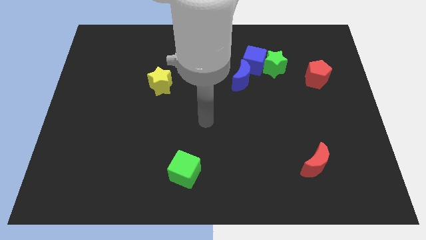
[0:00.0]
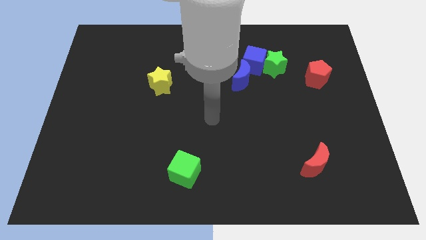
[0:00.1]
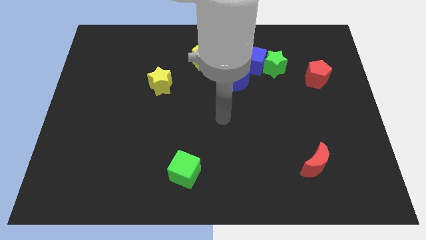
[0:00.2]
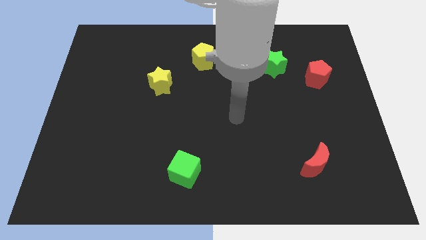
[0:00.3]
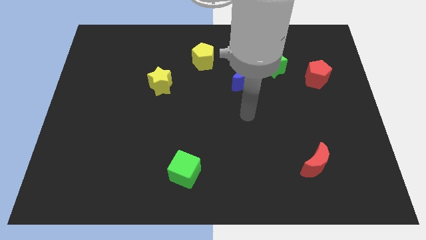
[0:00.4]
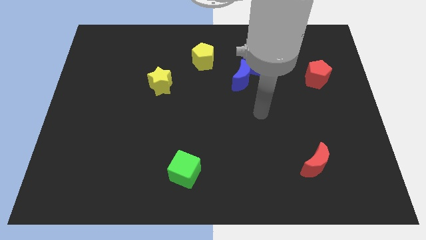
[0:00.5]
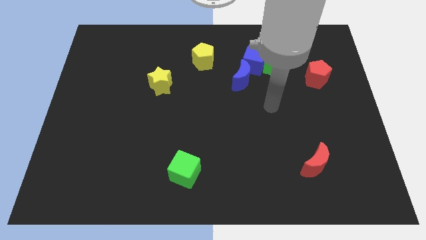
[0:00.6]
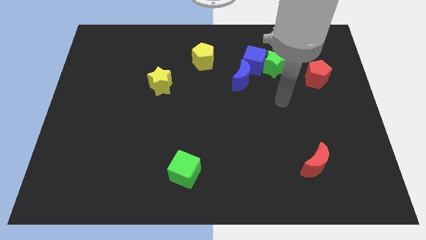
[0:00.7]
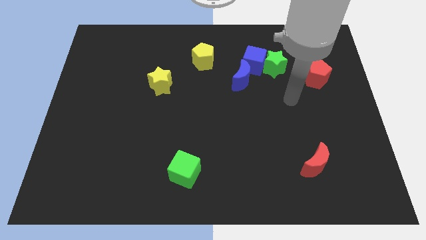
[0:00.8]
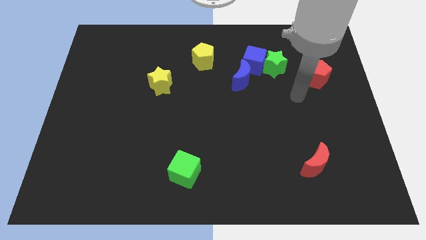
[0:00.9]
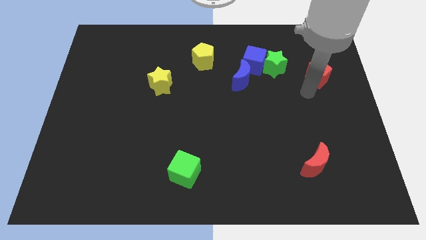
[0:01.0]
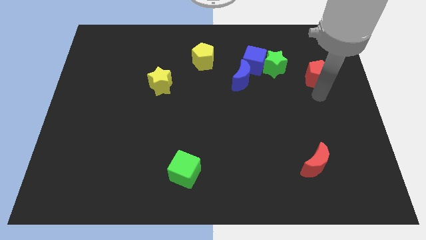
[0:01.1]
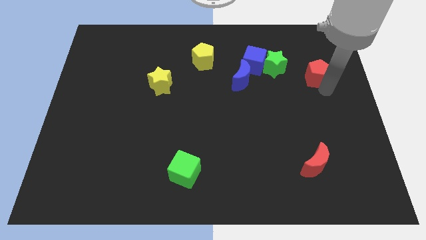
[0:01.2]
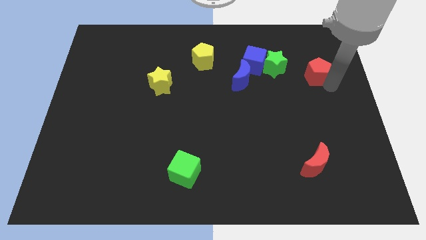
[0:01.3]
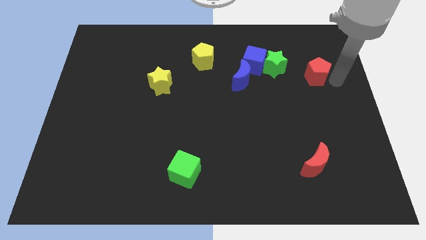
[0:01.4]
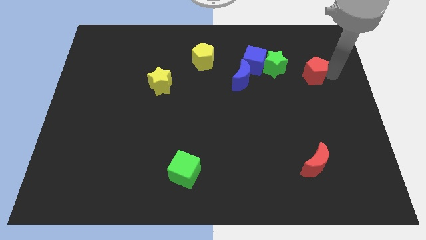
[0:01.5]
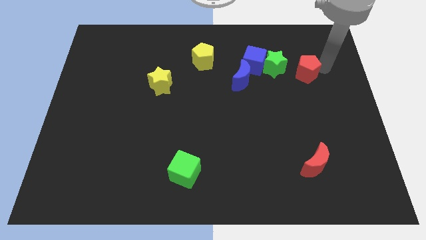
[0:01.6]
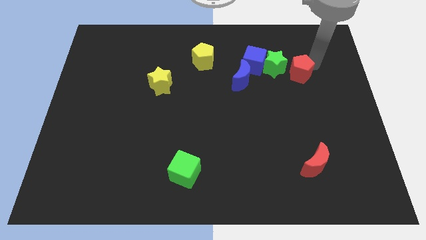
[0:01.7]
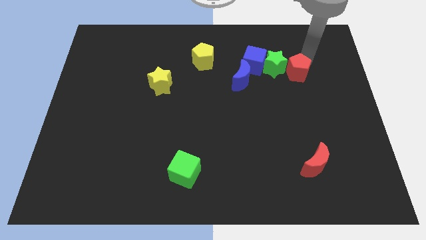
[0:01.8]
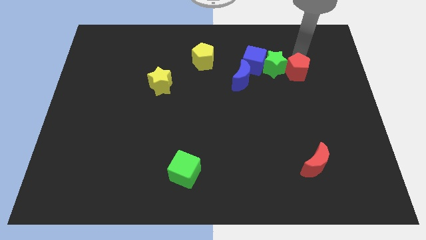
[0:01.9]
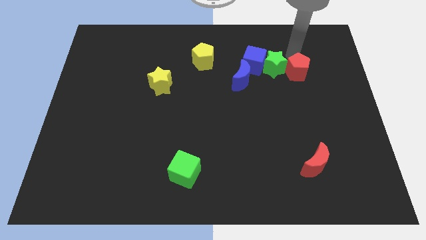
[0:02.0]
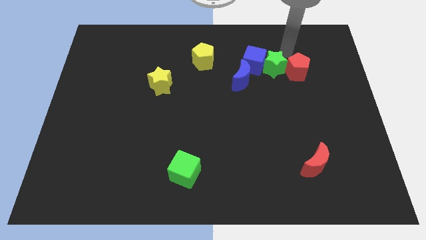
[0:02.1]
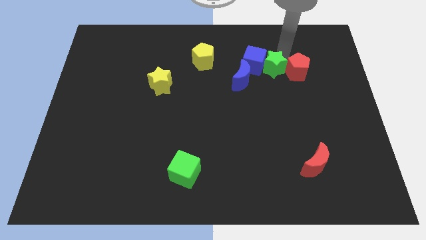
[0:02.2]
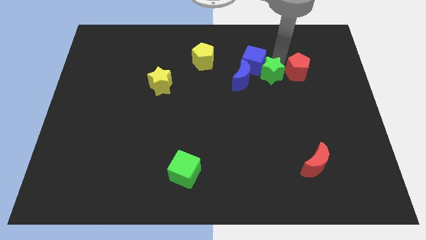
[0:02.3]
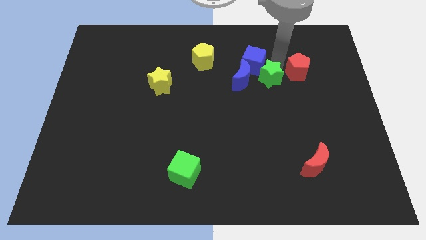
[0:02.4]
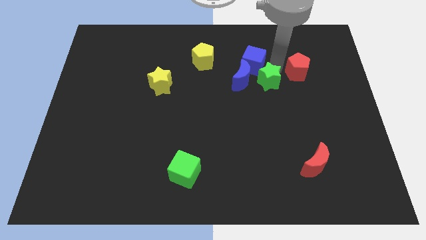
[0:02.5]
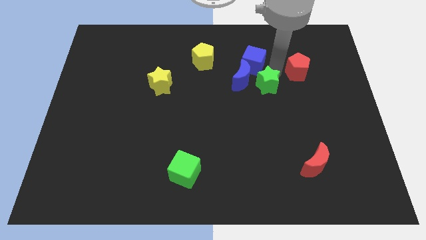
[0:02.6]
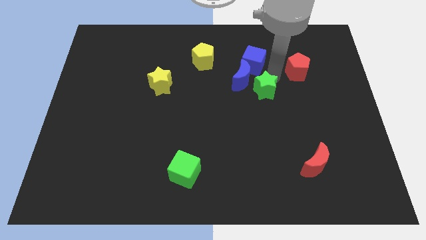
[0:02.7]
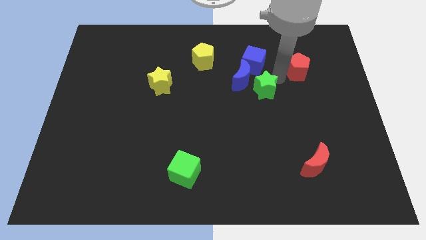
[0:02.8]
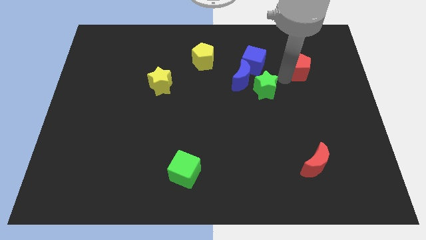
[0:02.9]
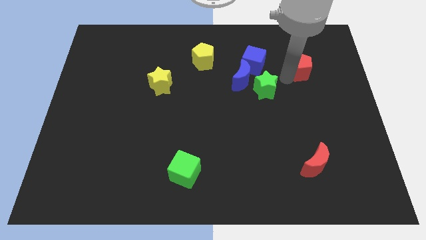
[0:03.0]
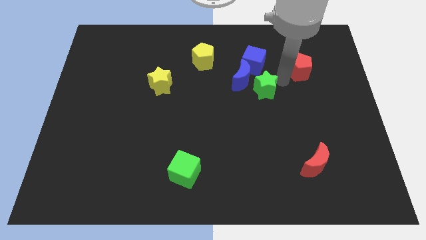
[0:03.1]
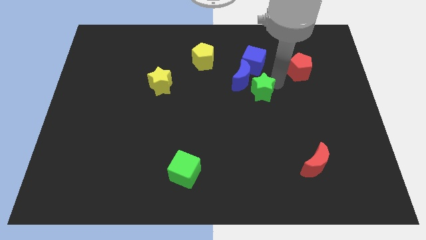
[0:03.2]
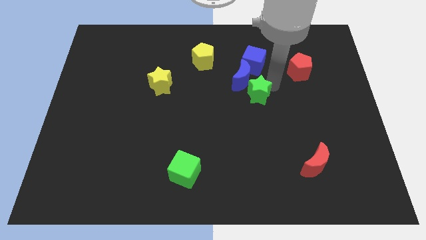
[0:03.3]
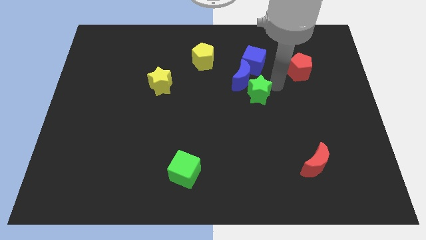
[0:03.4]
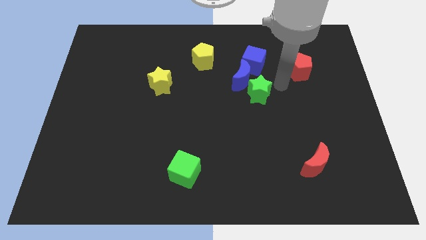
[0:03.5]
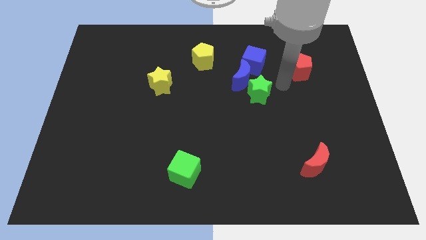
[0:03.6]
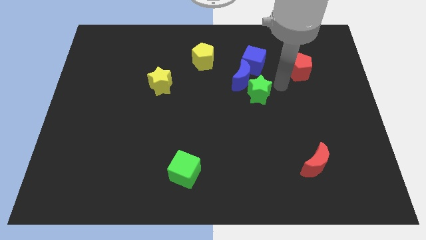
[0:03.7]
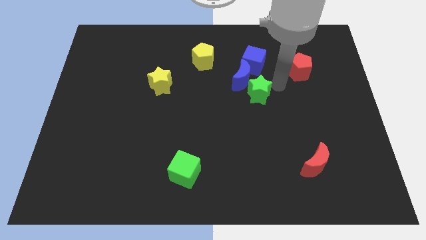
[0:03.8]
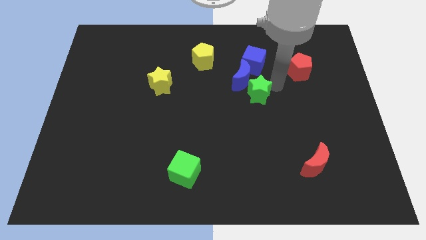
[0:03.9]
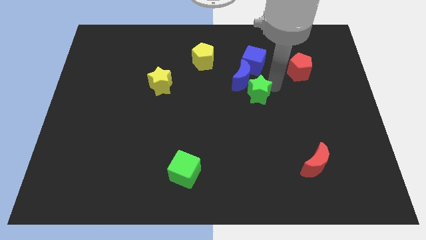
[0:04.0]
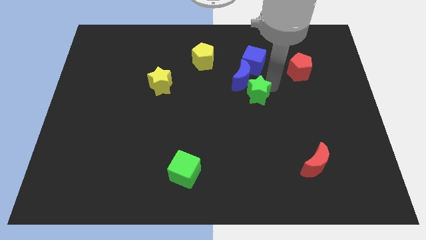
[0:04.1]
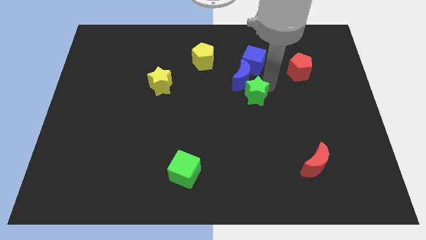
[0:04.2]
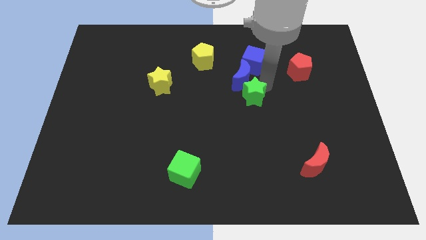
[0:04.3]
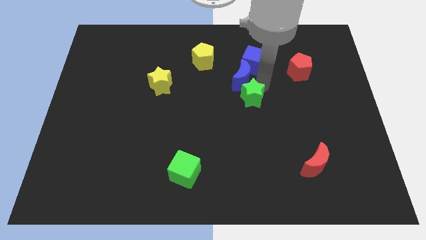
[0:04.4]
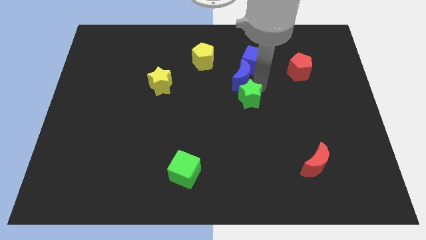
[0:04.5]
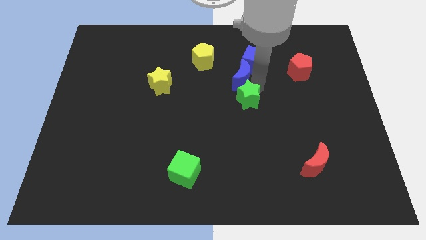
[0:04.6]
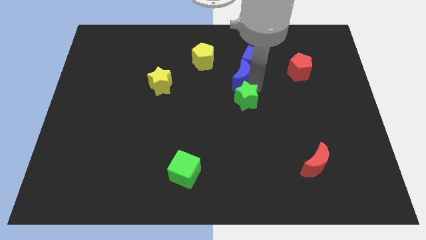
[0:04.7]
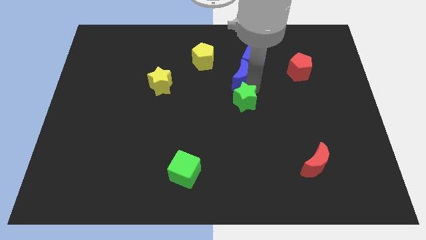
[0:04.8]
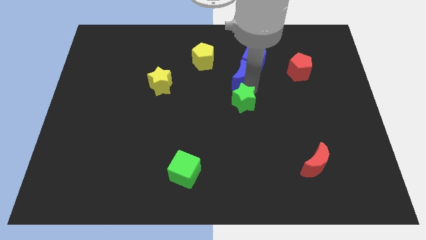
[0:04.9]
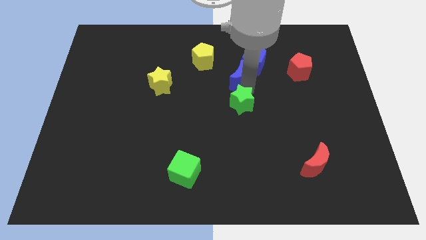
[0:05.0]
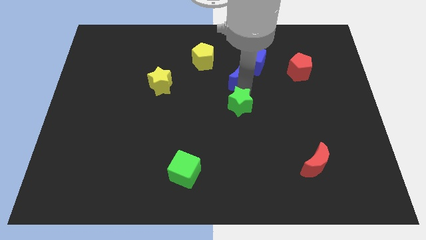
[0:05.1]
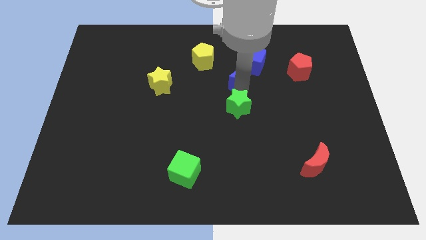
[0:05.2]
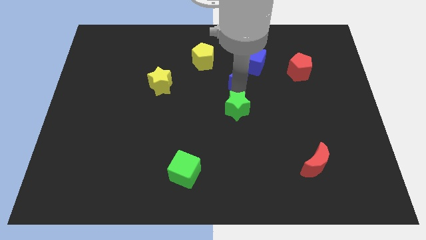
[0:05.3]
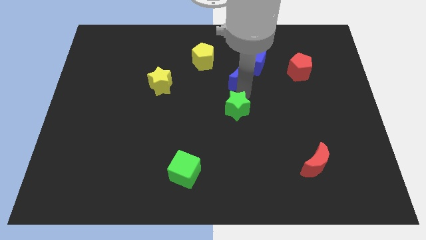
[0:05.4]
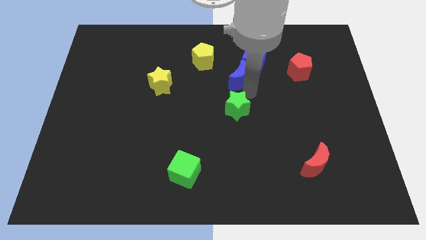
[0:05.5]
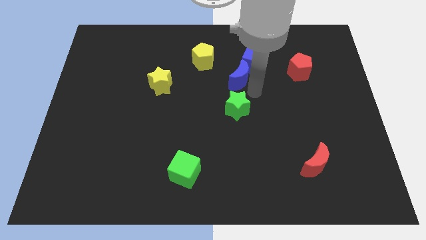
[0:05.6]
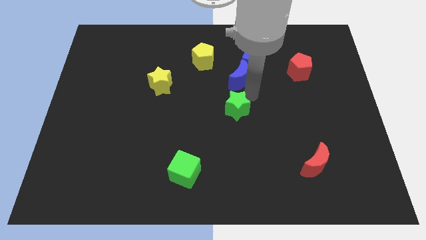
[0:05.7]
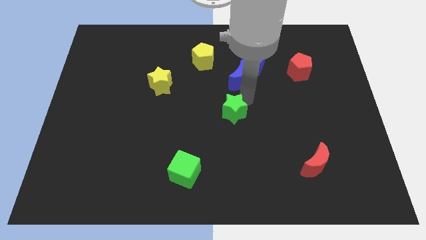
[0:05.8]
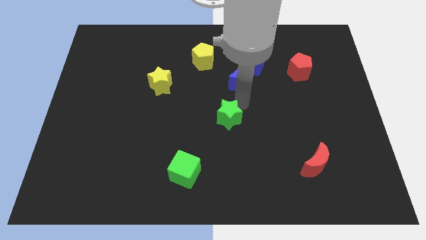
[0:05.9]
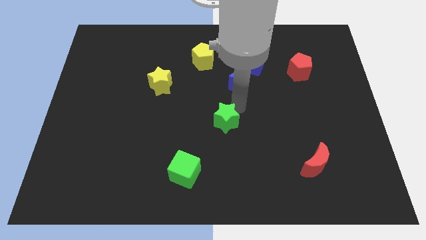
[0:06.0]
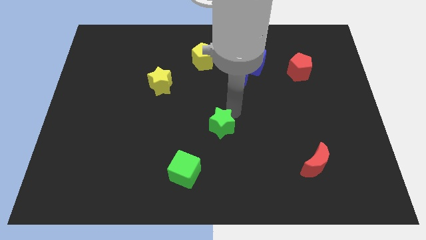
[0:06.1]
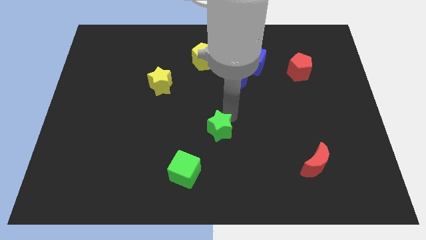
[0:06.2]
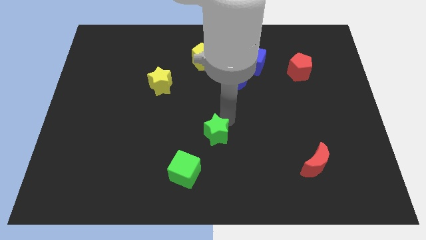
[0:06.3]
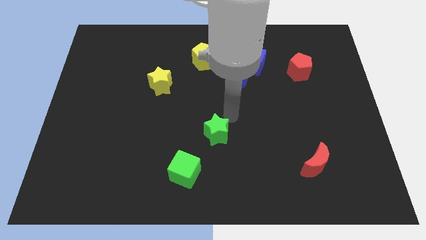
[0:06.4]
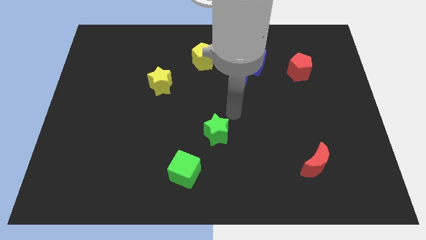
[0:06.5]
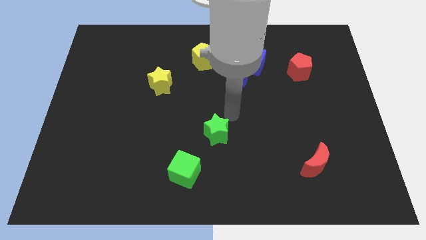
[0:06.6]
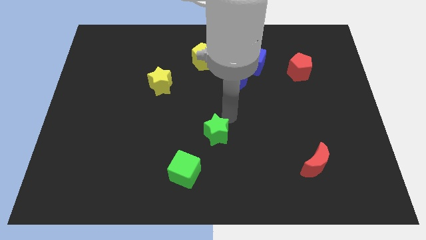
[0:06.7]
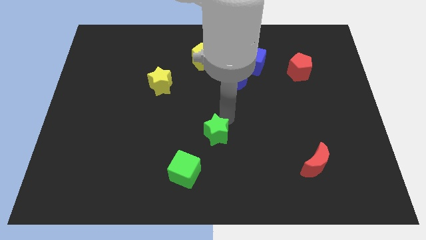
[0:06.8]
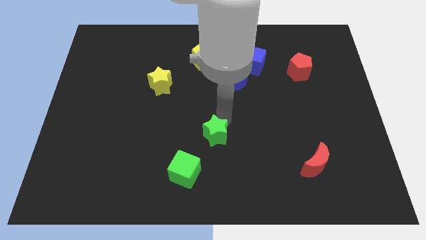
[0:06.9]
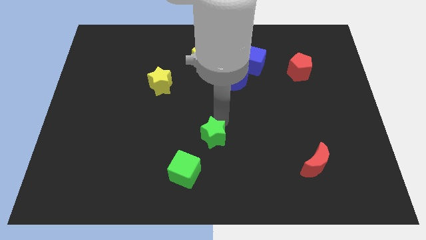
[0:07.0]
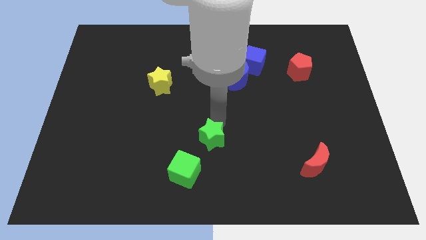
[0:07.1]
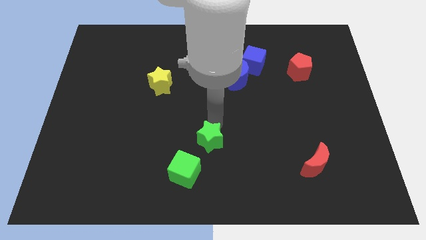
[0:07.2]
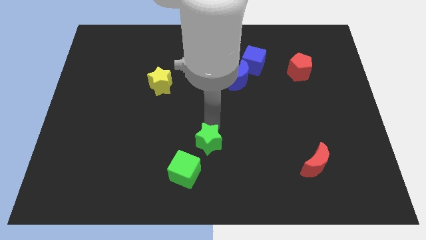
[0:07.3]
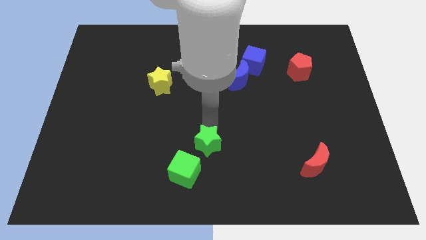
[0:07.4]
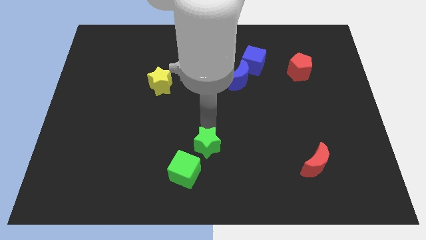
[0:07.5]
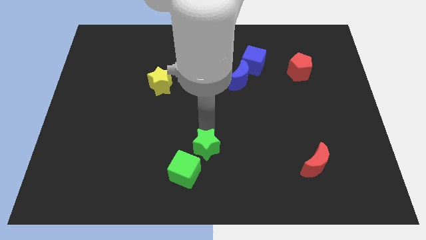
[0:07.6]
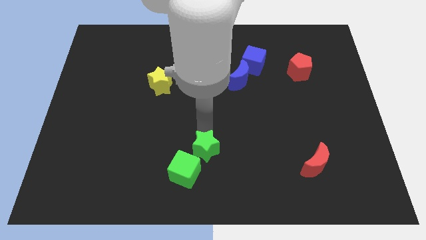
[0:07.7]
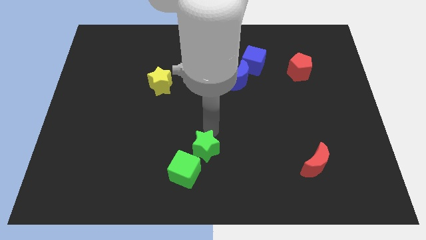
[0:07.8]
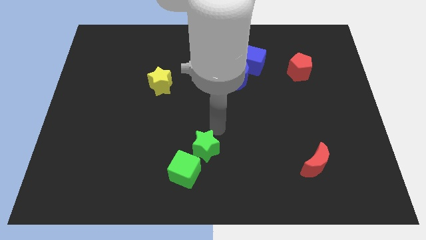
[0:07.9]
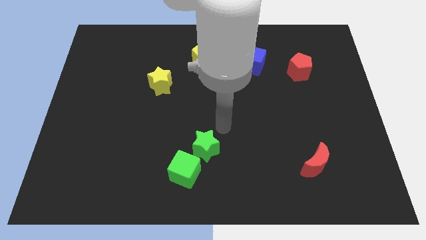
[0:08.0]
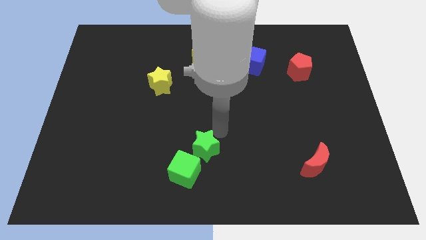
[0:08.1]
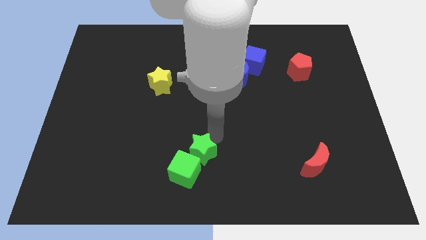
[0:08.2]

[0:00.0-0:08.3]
move the green star close to the green cube
